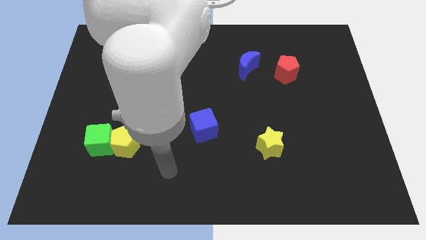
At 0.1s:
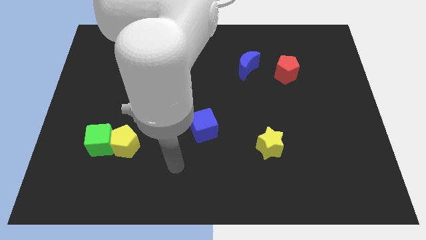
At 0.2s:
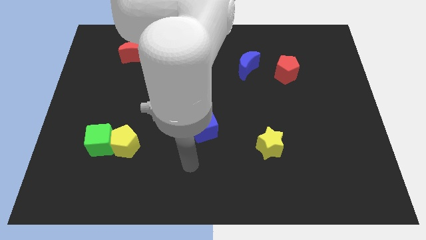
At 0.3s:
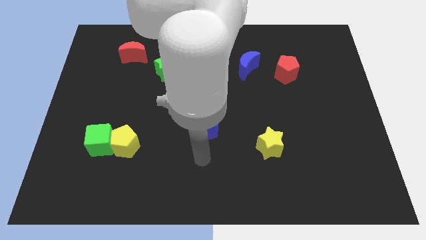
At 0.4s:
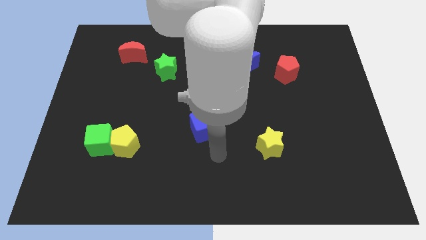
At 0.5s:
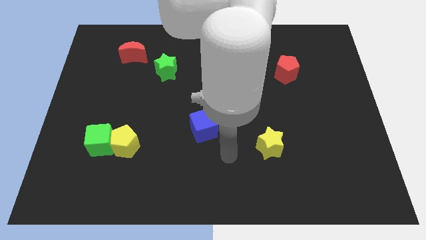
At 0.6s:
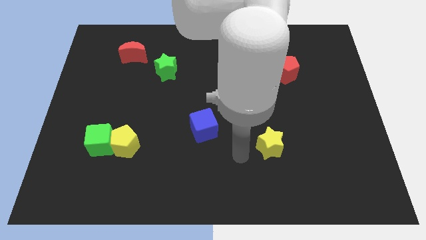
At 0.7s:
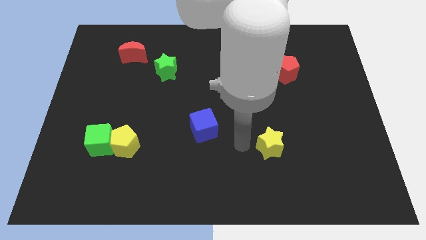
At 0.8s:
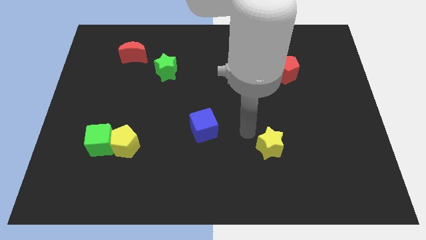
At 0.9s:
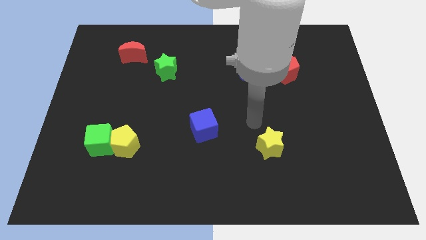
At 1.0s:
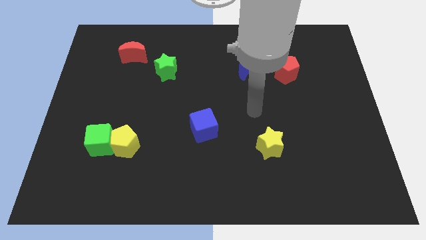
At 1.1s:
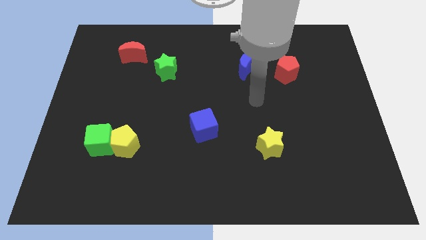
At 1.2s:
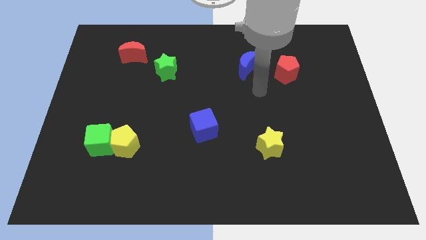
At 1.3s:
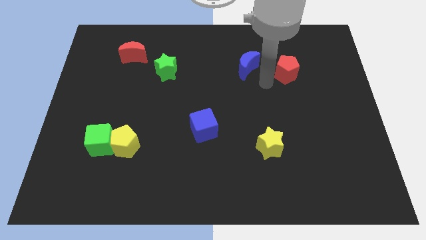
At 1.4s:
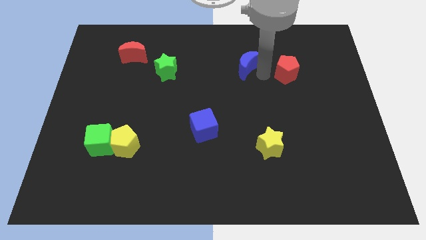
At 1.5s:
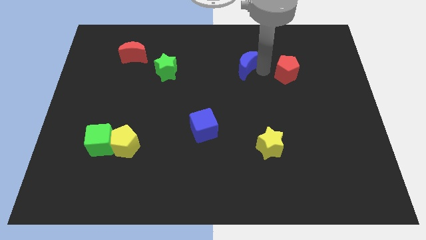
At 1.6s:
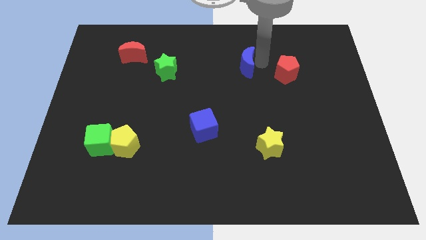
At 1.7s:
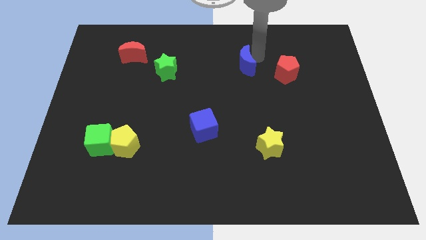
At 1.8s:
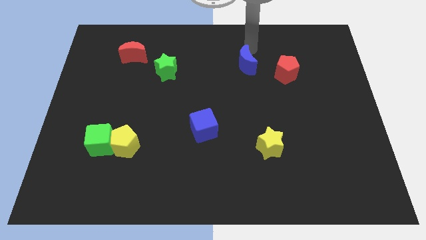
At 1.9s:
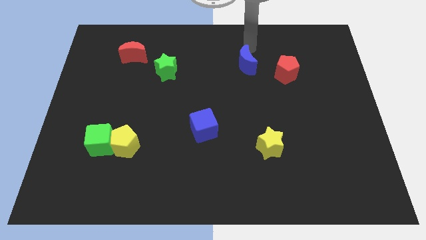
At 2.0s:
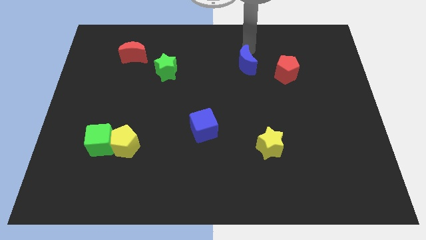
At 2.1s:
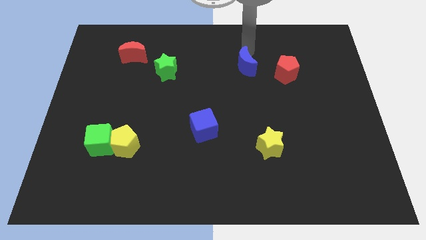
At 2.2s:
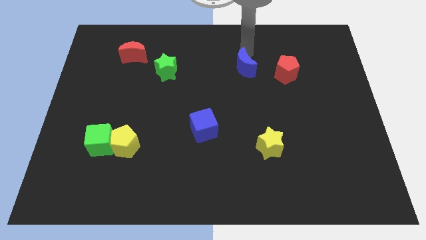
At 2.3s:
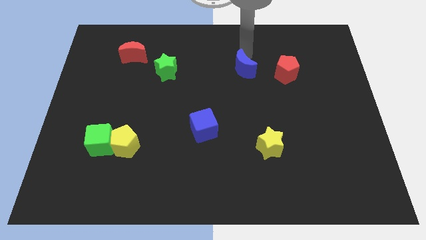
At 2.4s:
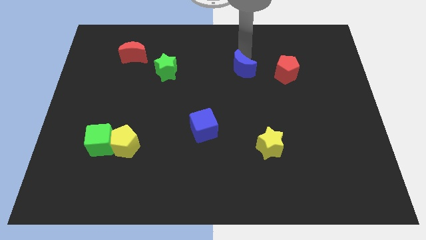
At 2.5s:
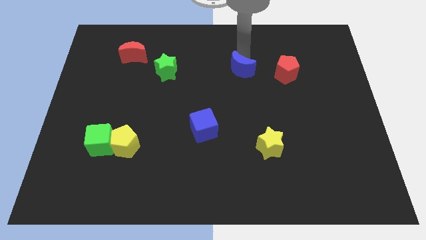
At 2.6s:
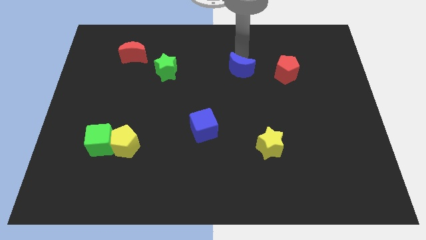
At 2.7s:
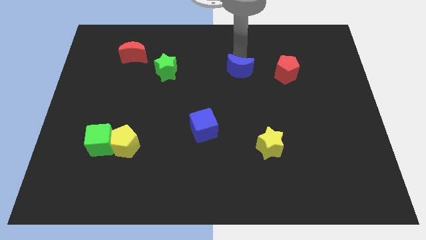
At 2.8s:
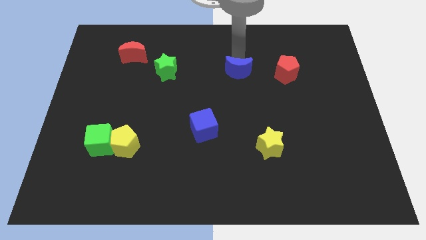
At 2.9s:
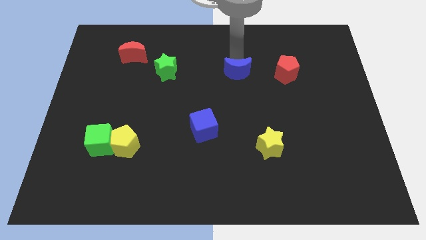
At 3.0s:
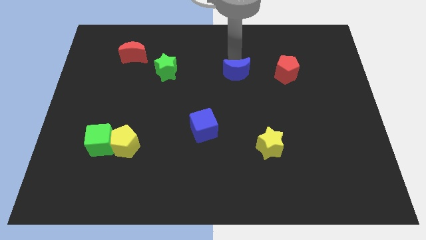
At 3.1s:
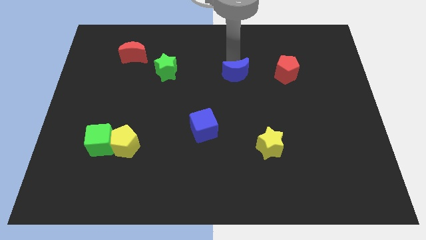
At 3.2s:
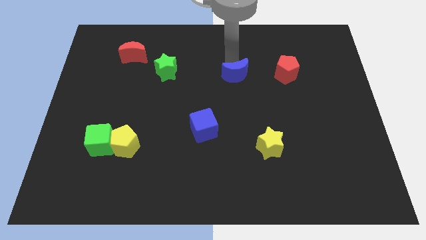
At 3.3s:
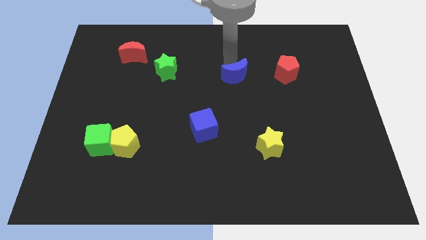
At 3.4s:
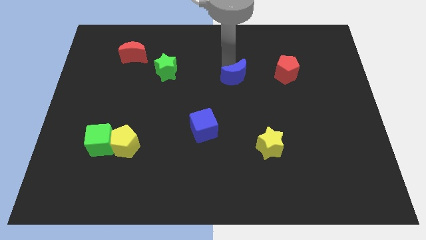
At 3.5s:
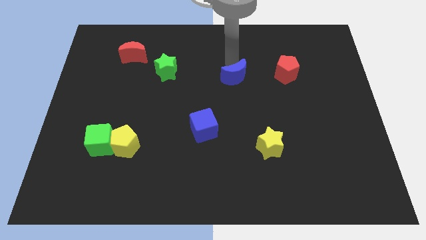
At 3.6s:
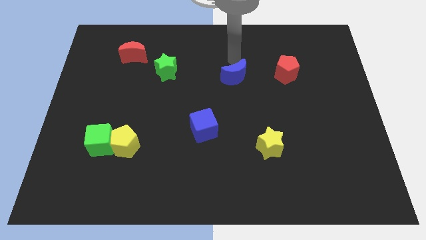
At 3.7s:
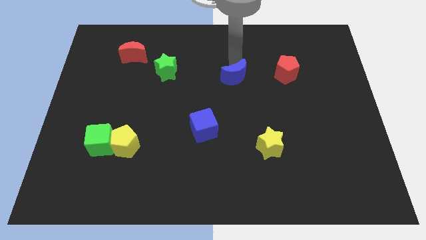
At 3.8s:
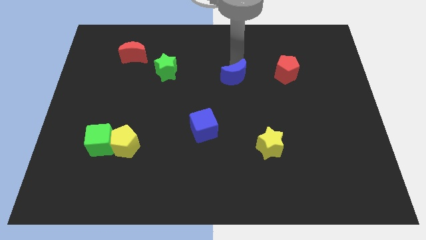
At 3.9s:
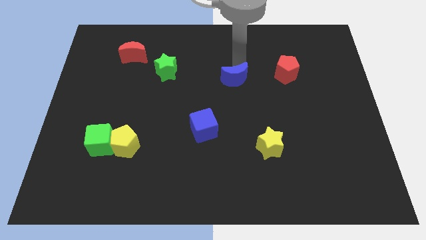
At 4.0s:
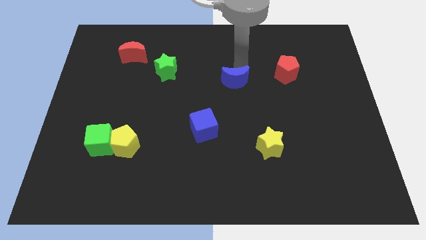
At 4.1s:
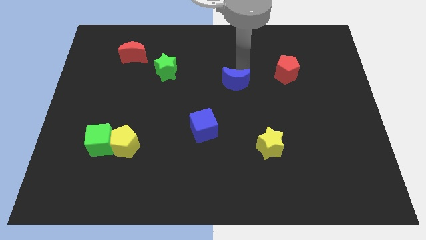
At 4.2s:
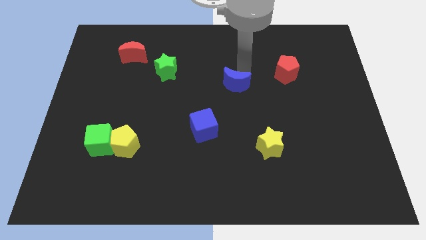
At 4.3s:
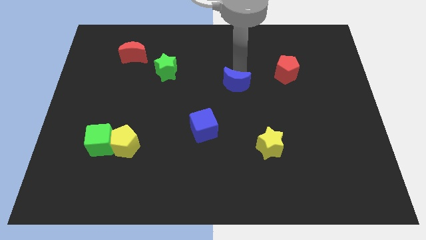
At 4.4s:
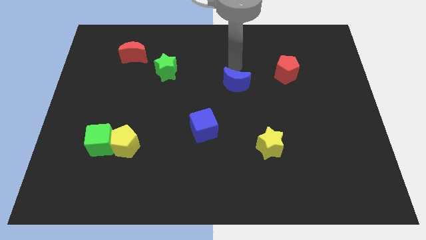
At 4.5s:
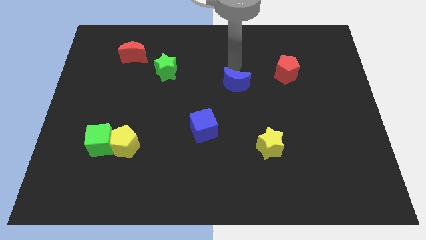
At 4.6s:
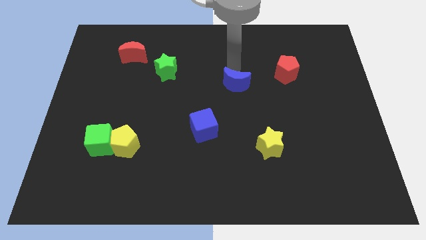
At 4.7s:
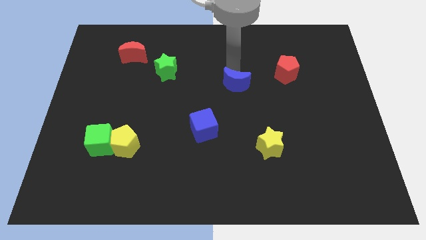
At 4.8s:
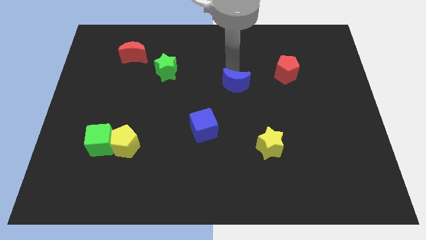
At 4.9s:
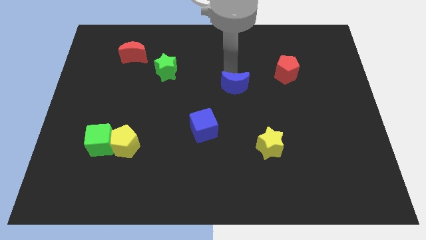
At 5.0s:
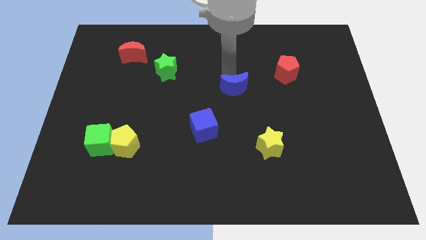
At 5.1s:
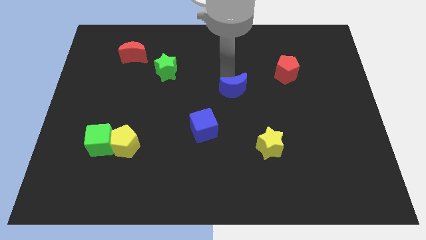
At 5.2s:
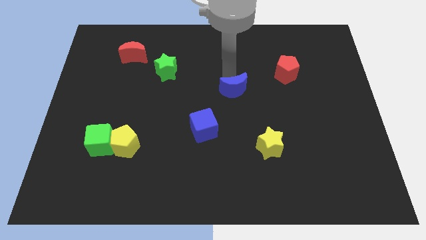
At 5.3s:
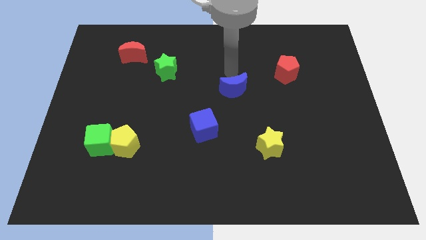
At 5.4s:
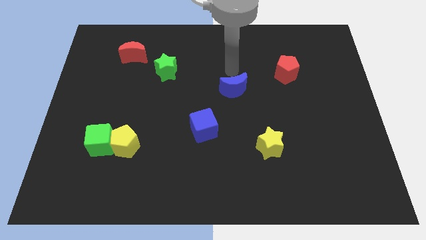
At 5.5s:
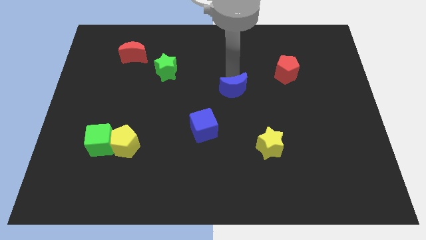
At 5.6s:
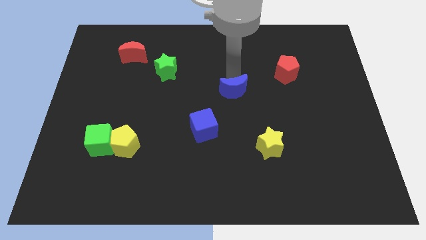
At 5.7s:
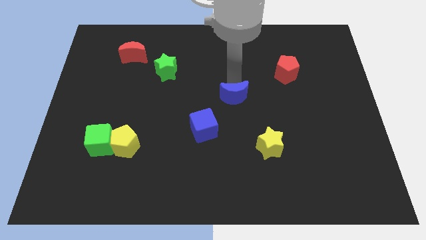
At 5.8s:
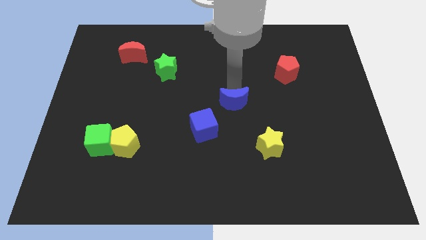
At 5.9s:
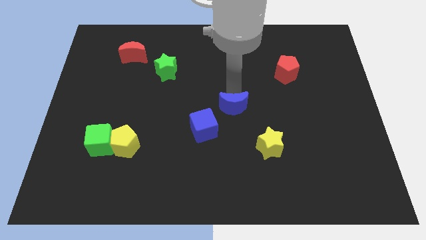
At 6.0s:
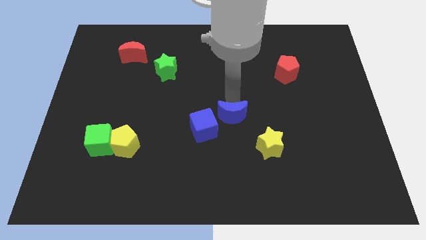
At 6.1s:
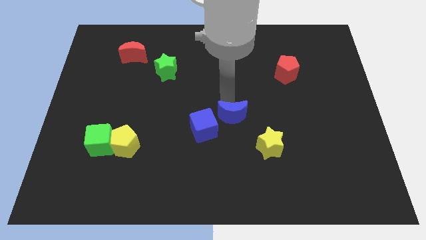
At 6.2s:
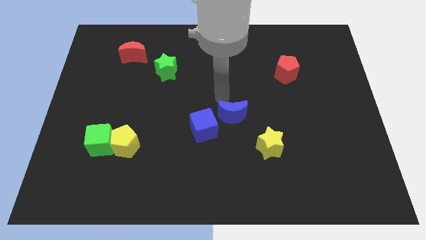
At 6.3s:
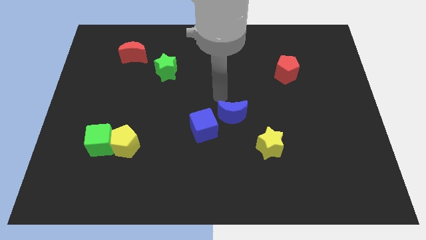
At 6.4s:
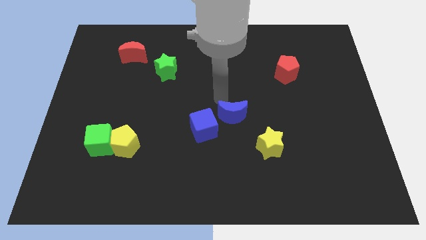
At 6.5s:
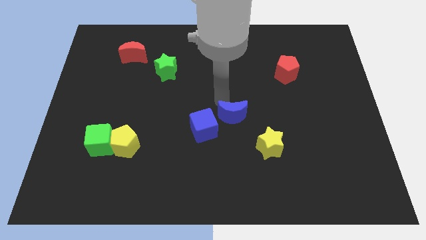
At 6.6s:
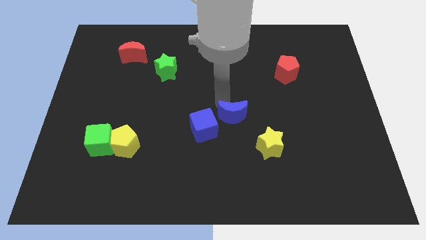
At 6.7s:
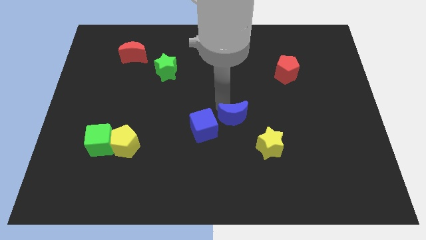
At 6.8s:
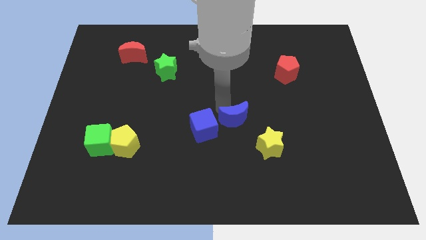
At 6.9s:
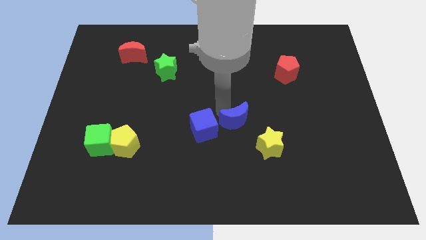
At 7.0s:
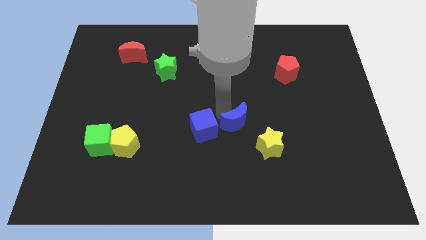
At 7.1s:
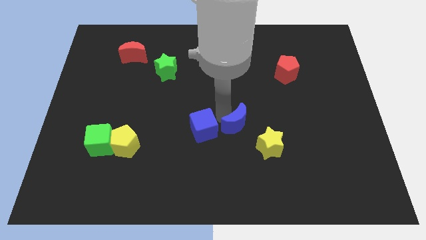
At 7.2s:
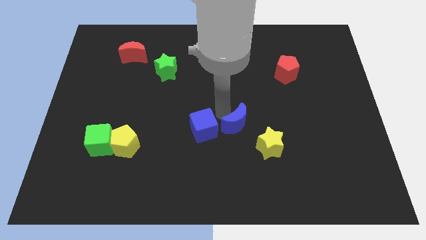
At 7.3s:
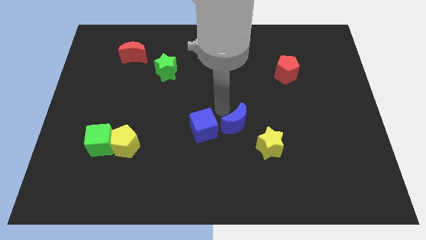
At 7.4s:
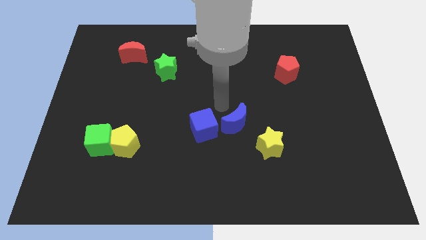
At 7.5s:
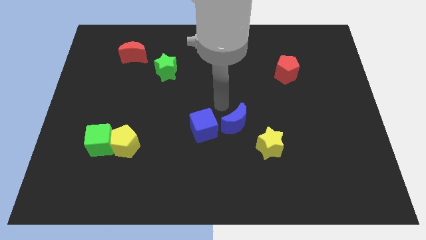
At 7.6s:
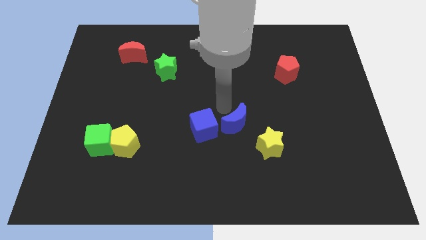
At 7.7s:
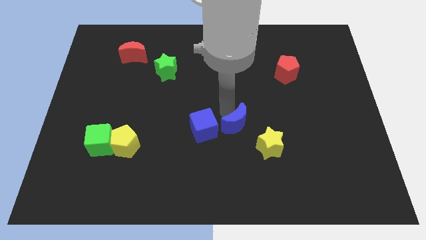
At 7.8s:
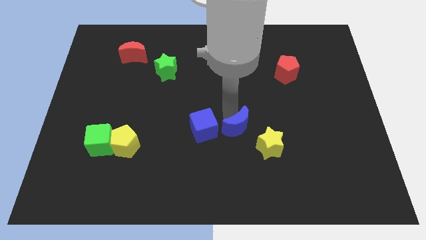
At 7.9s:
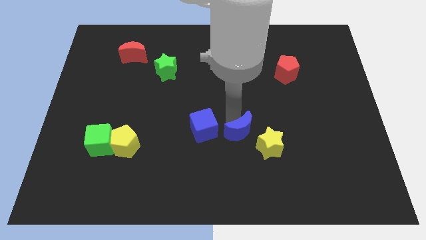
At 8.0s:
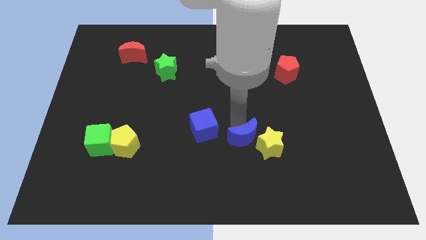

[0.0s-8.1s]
push the blue moon down
